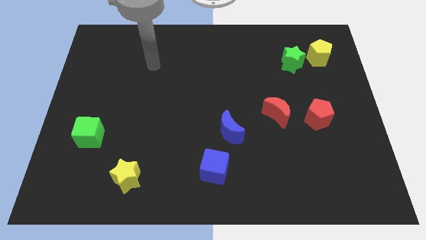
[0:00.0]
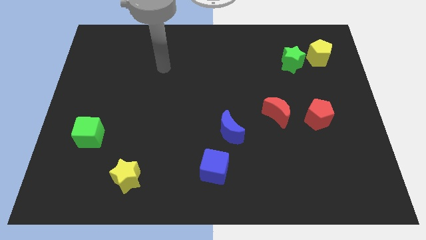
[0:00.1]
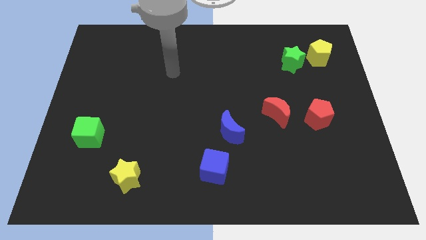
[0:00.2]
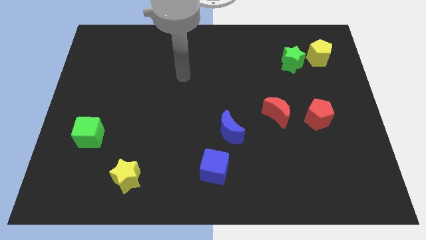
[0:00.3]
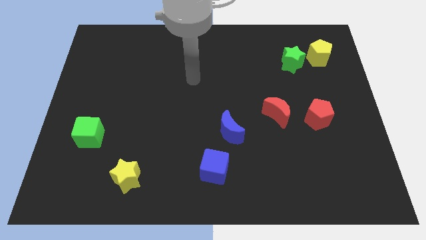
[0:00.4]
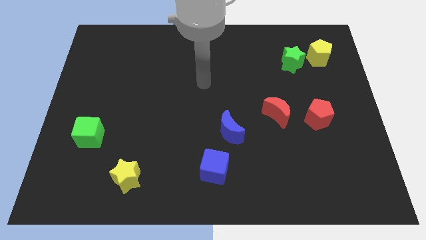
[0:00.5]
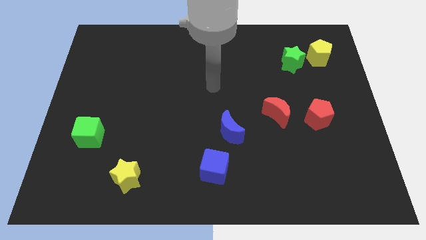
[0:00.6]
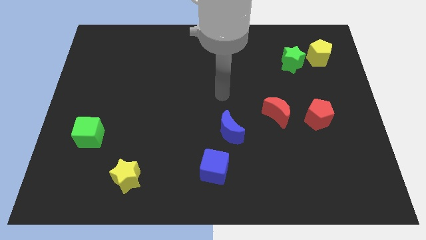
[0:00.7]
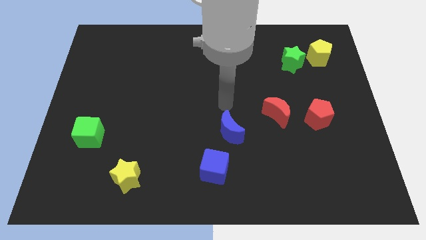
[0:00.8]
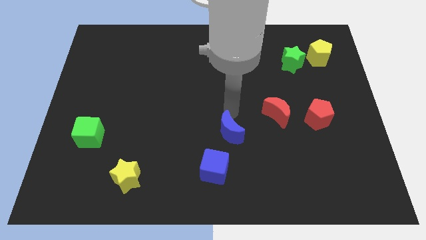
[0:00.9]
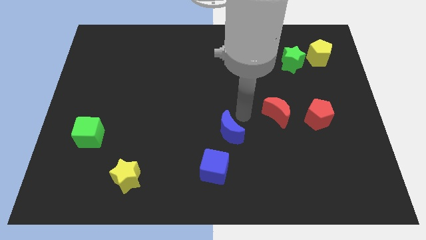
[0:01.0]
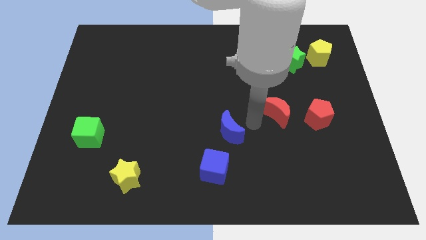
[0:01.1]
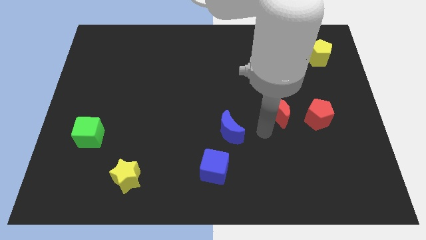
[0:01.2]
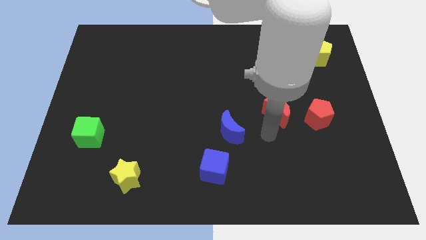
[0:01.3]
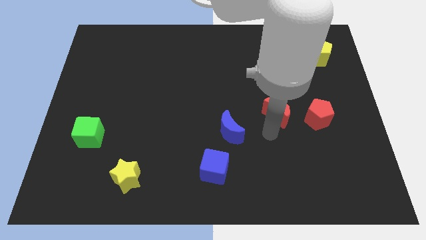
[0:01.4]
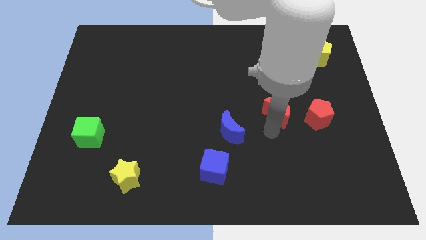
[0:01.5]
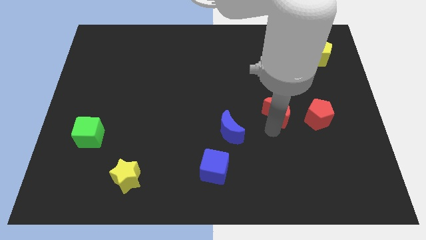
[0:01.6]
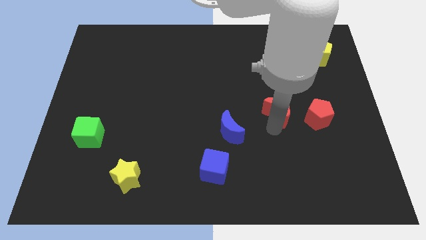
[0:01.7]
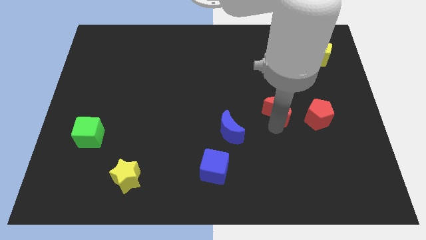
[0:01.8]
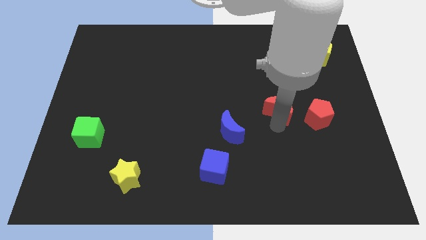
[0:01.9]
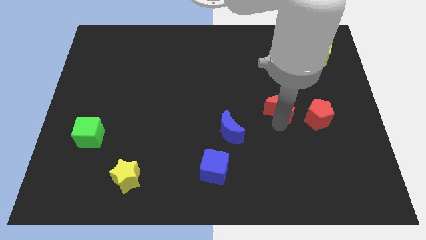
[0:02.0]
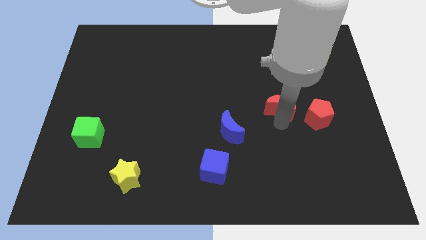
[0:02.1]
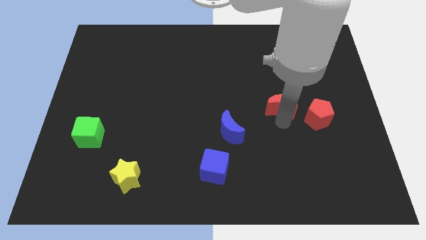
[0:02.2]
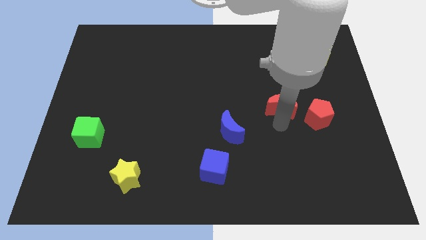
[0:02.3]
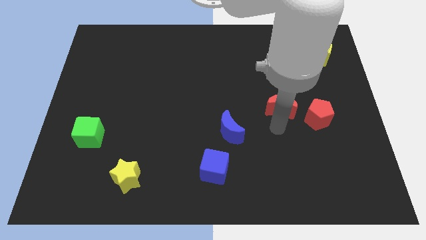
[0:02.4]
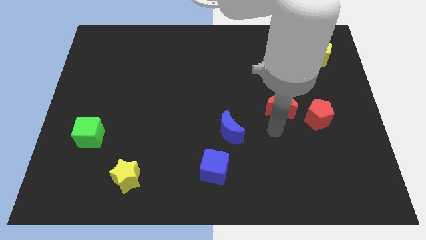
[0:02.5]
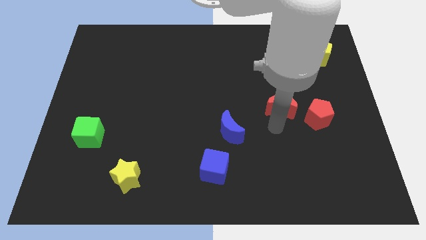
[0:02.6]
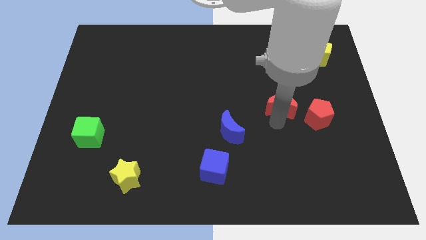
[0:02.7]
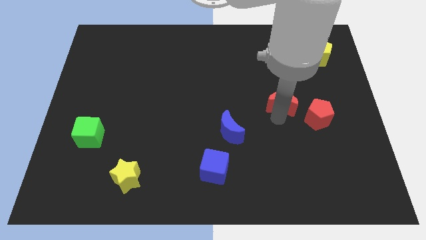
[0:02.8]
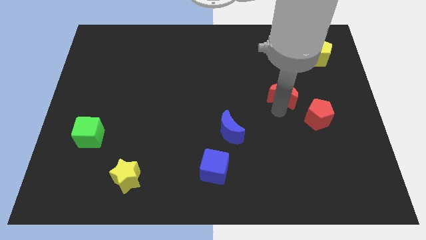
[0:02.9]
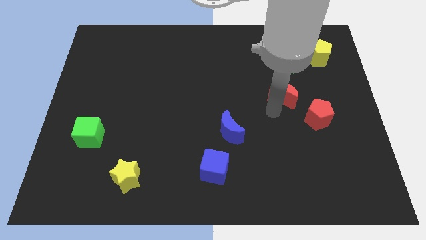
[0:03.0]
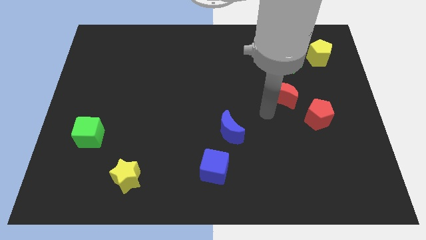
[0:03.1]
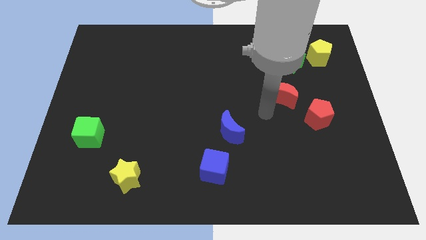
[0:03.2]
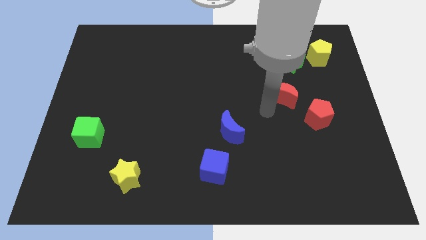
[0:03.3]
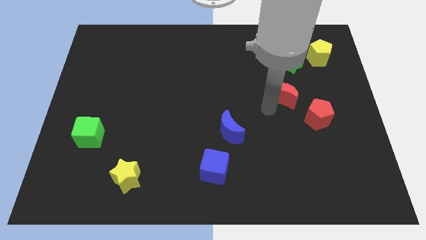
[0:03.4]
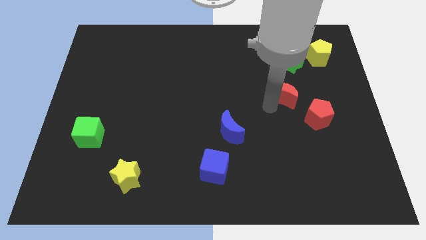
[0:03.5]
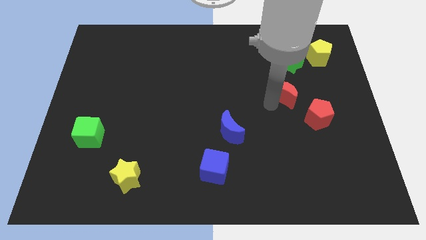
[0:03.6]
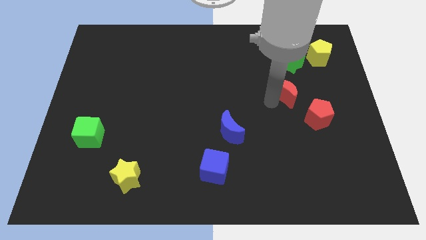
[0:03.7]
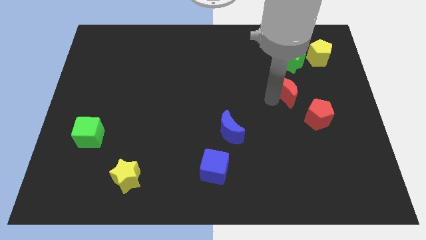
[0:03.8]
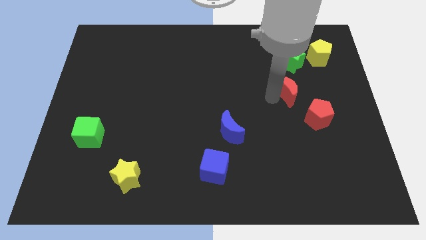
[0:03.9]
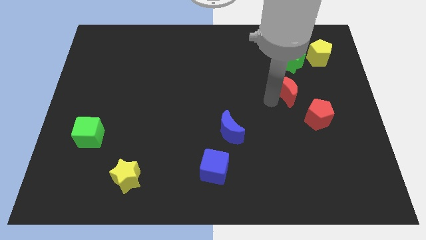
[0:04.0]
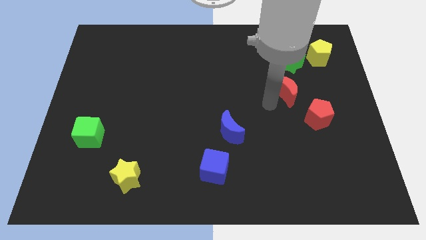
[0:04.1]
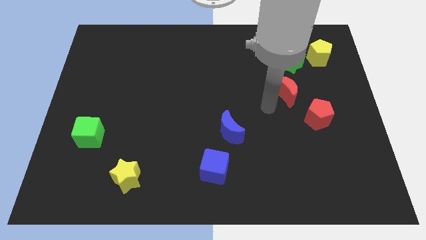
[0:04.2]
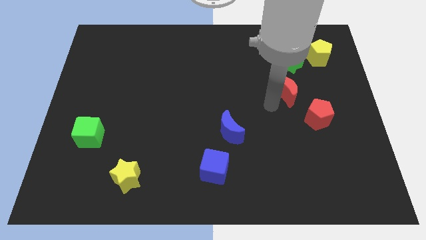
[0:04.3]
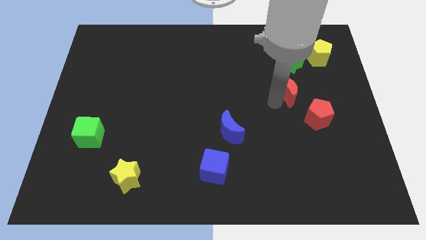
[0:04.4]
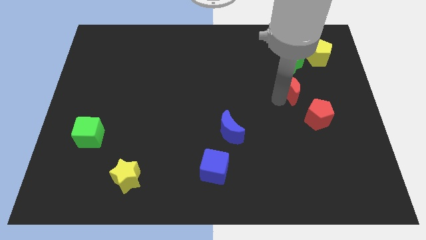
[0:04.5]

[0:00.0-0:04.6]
slightly push the red moon up and to the right

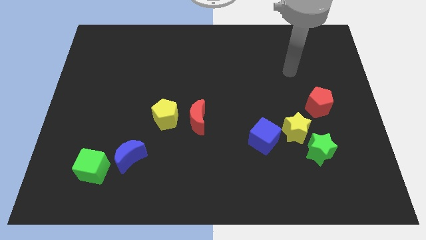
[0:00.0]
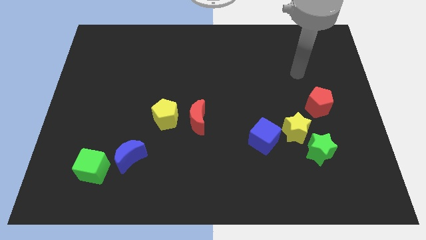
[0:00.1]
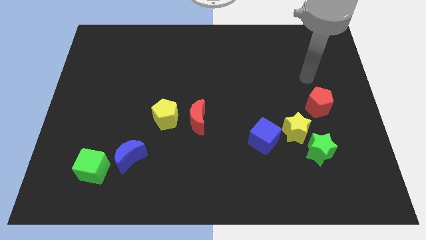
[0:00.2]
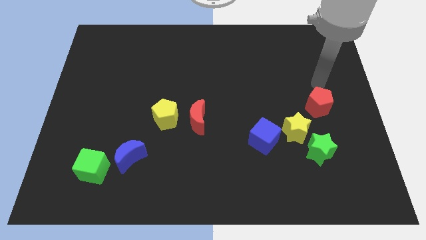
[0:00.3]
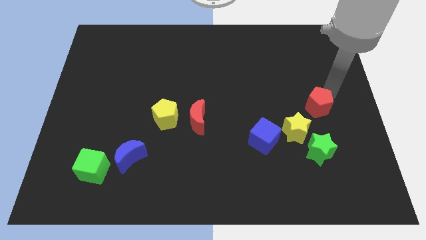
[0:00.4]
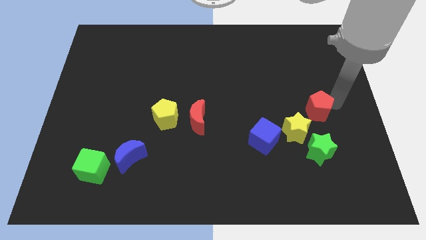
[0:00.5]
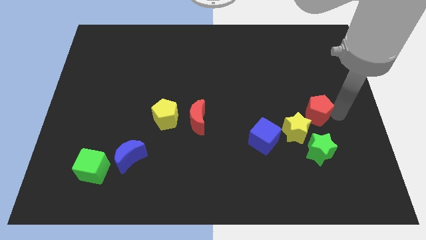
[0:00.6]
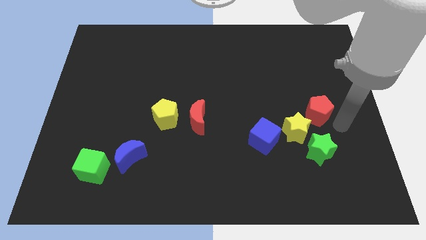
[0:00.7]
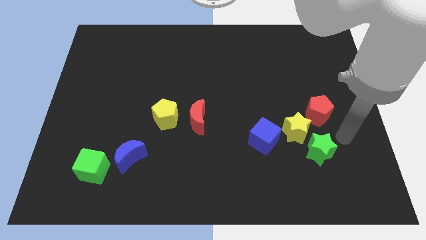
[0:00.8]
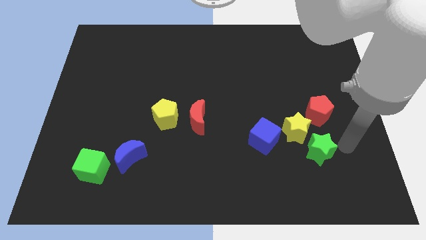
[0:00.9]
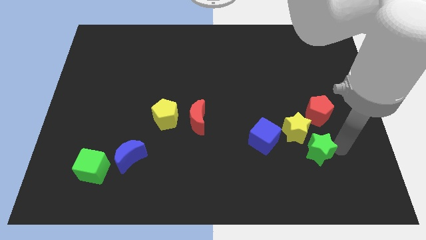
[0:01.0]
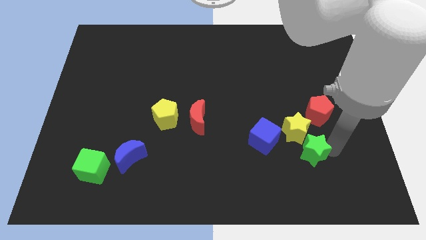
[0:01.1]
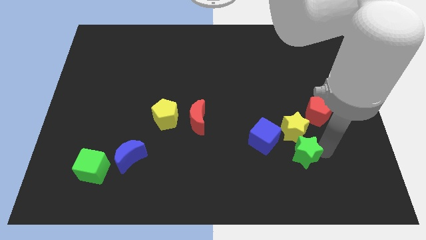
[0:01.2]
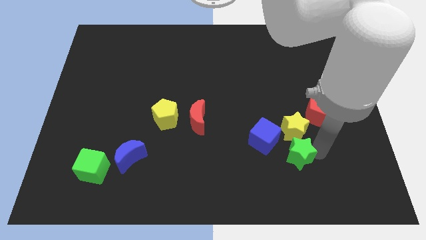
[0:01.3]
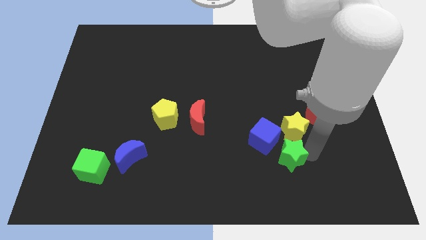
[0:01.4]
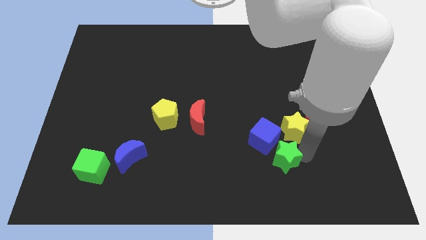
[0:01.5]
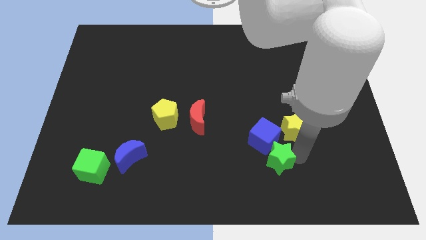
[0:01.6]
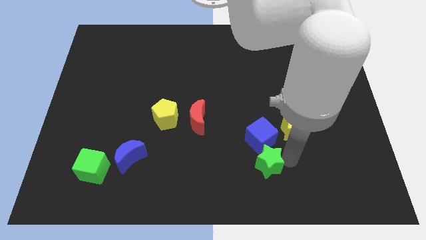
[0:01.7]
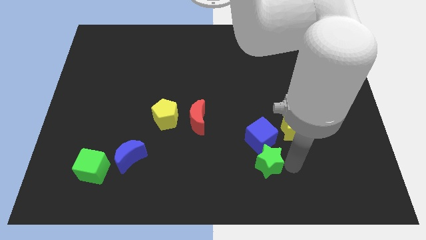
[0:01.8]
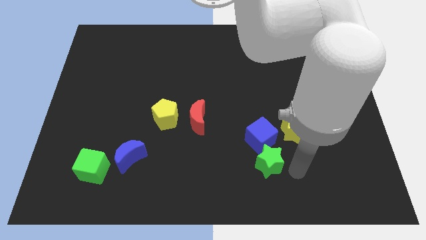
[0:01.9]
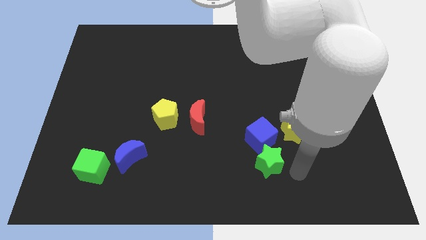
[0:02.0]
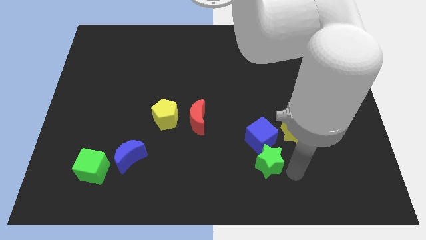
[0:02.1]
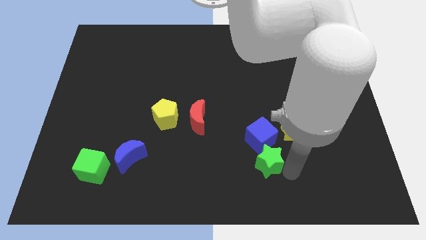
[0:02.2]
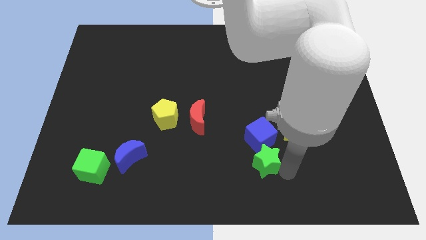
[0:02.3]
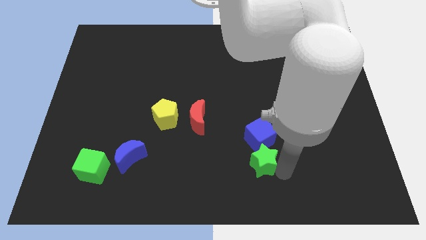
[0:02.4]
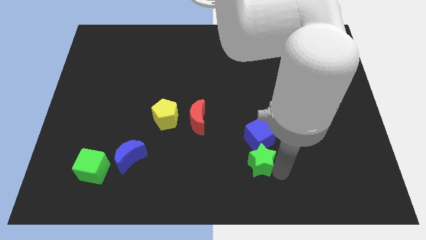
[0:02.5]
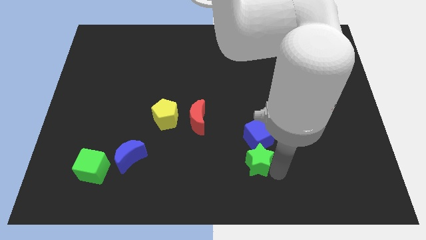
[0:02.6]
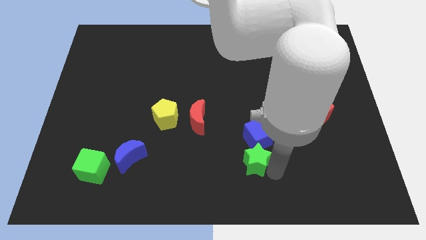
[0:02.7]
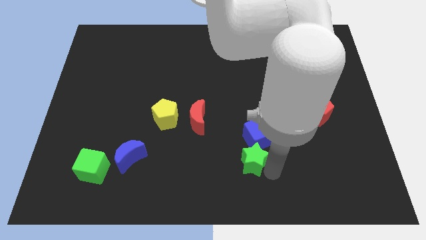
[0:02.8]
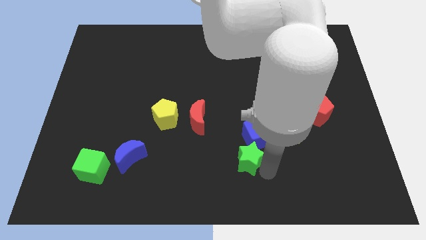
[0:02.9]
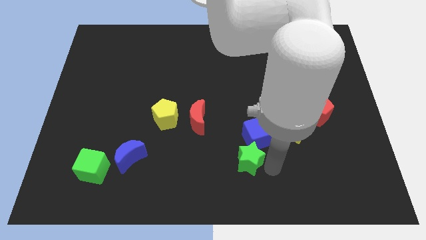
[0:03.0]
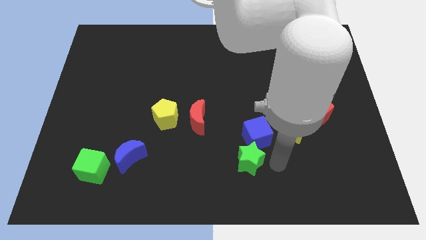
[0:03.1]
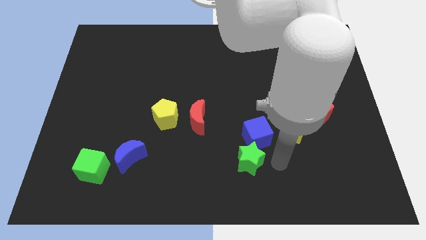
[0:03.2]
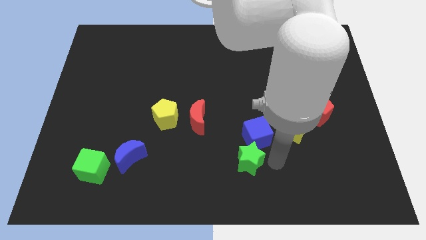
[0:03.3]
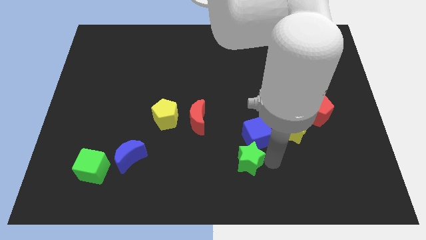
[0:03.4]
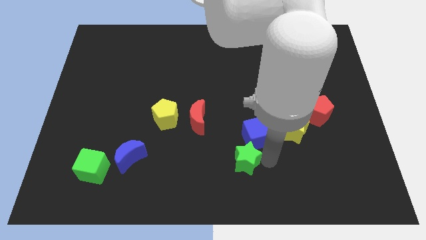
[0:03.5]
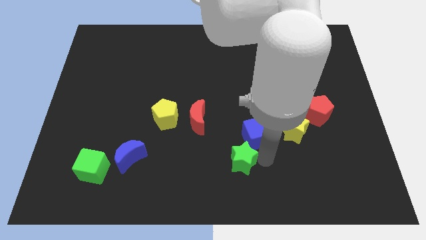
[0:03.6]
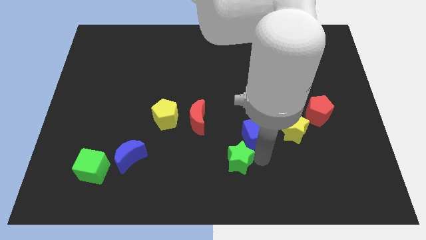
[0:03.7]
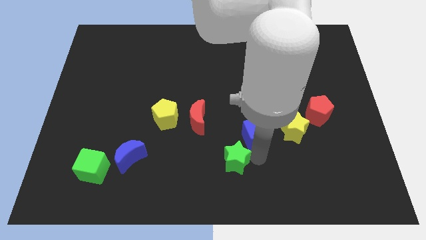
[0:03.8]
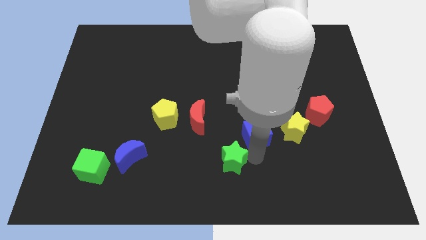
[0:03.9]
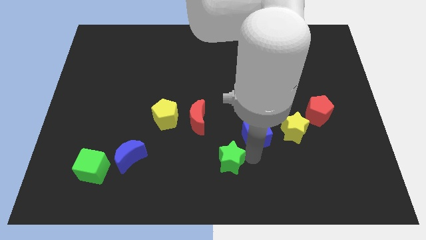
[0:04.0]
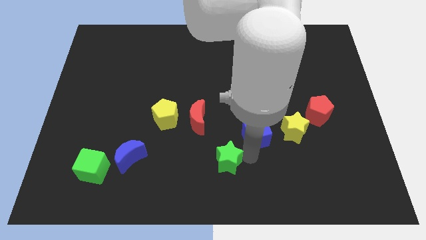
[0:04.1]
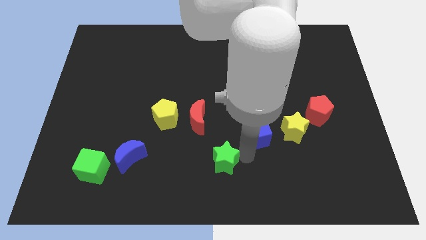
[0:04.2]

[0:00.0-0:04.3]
push the green star left
